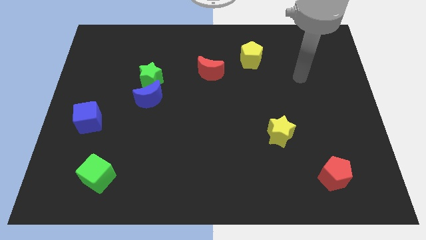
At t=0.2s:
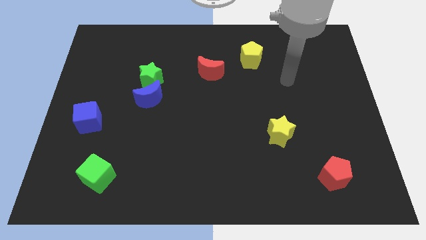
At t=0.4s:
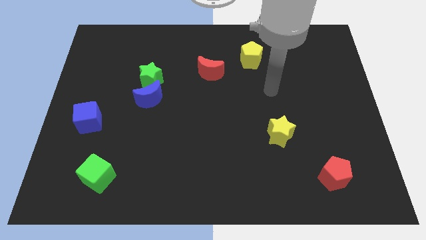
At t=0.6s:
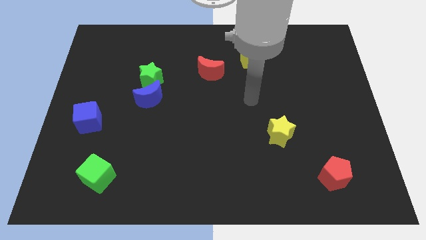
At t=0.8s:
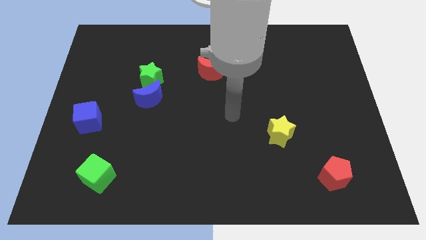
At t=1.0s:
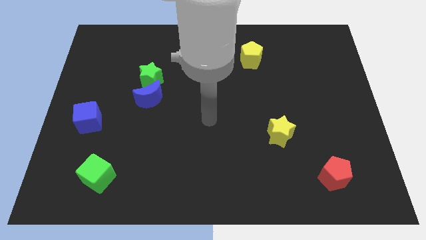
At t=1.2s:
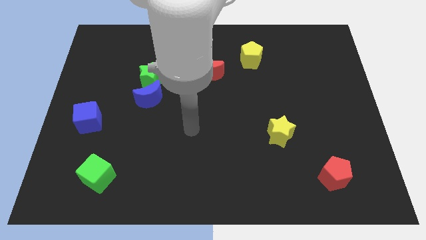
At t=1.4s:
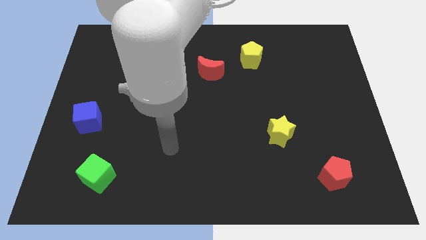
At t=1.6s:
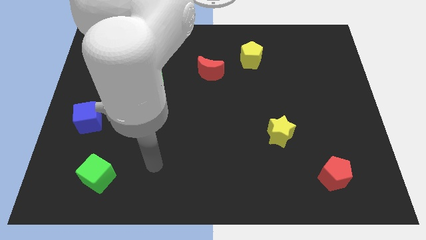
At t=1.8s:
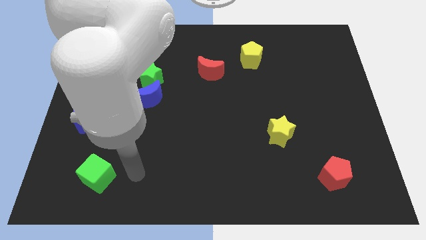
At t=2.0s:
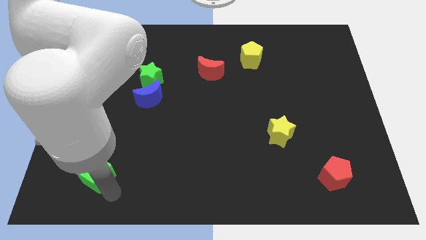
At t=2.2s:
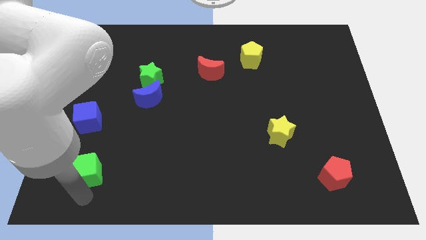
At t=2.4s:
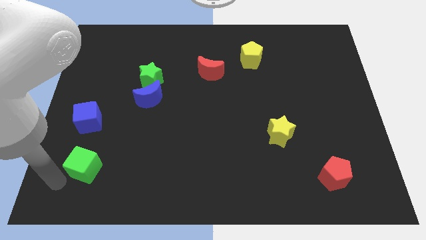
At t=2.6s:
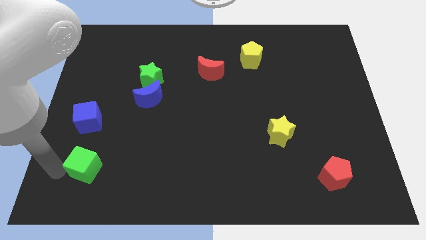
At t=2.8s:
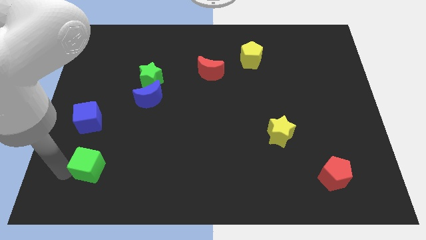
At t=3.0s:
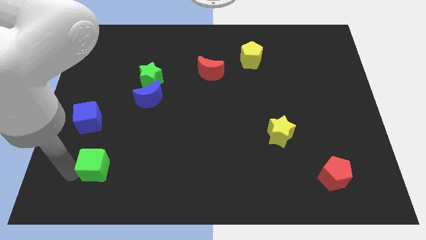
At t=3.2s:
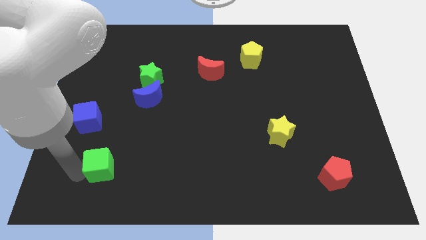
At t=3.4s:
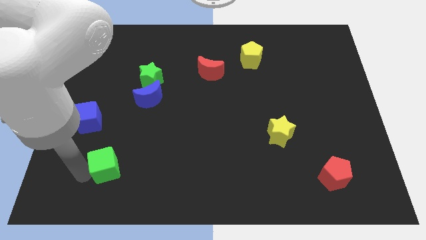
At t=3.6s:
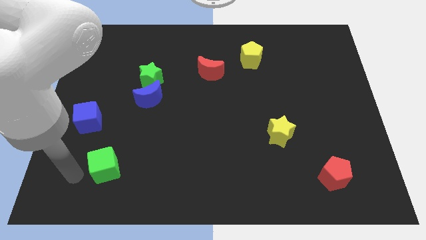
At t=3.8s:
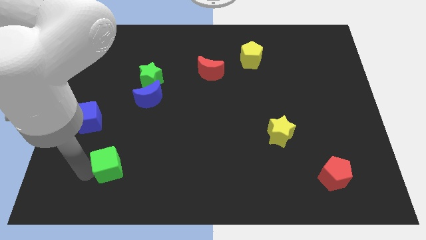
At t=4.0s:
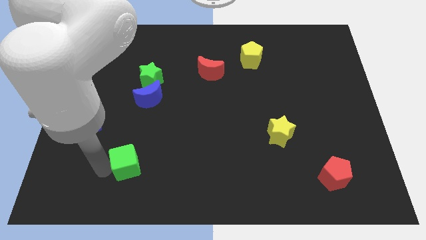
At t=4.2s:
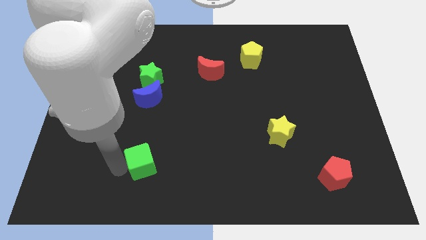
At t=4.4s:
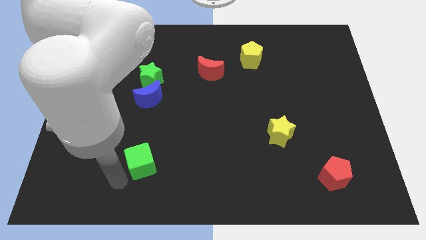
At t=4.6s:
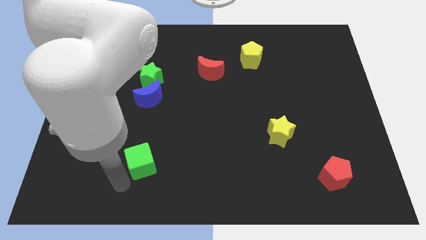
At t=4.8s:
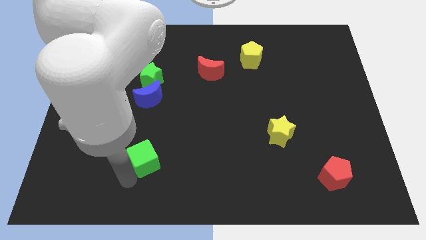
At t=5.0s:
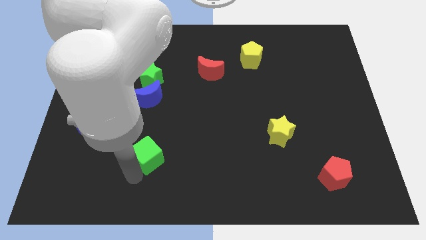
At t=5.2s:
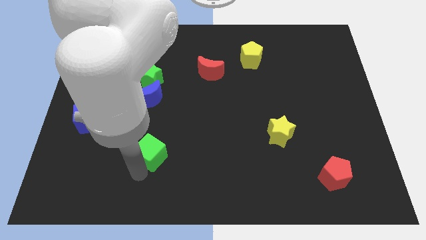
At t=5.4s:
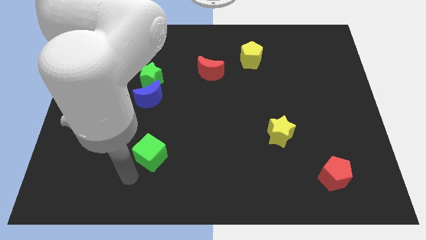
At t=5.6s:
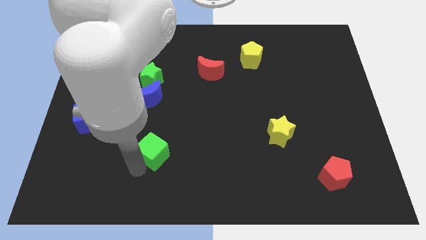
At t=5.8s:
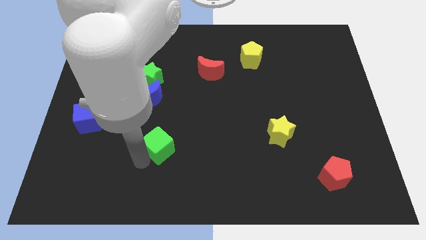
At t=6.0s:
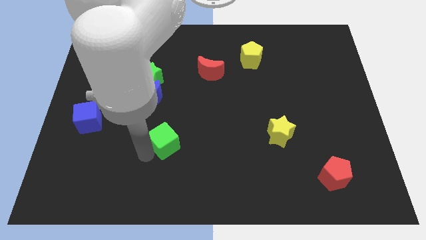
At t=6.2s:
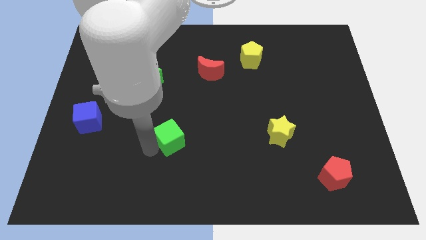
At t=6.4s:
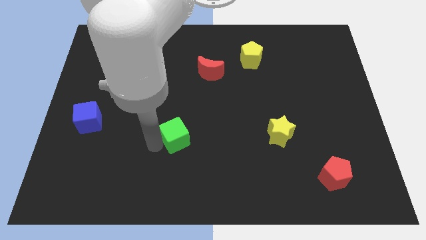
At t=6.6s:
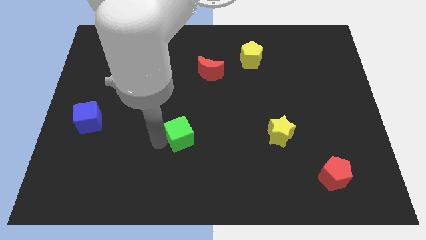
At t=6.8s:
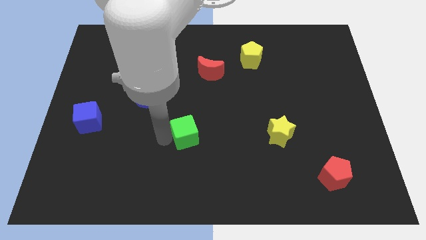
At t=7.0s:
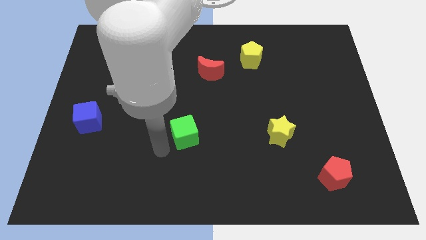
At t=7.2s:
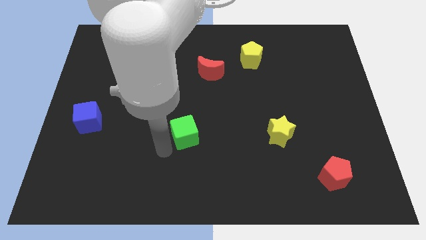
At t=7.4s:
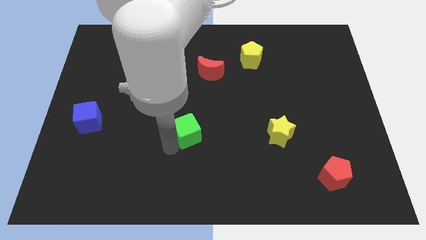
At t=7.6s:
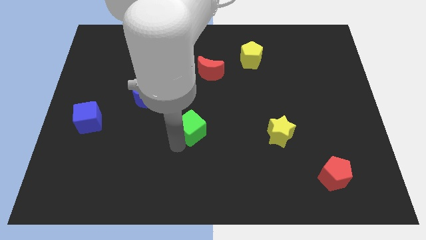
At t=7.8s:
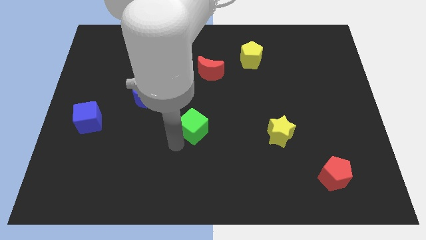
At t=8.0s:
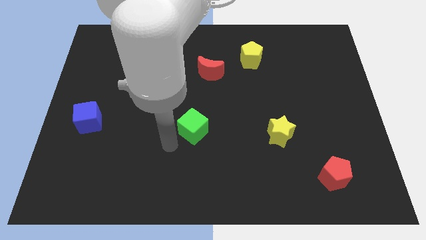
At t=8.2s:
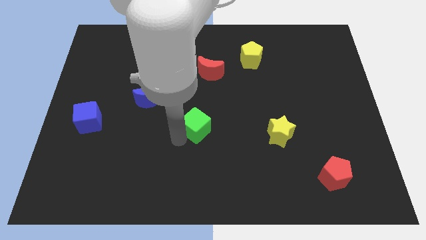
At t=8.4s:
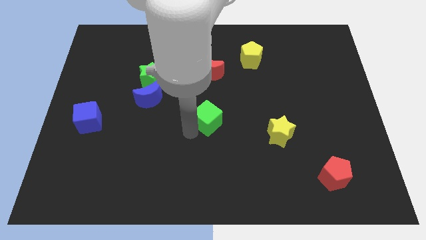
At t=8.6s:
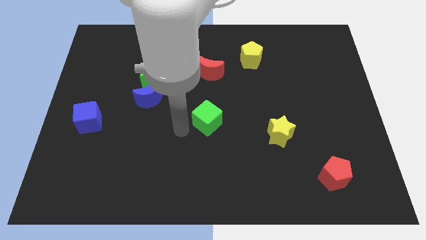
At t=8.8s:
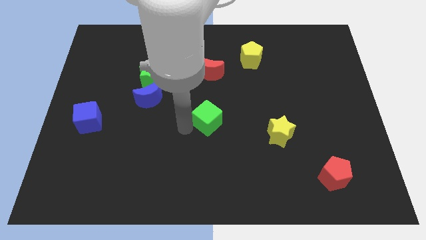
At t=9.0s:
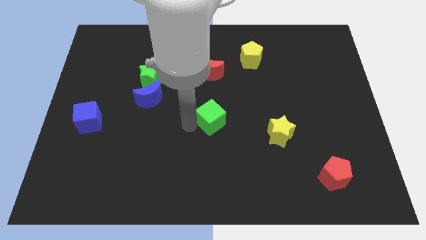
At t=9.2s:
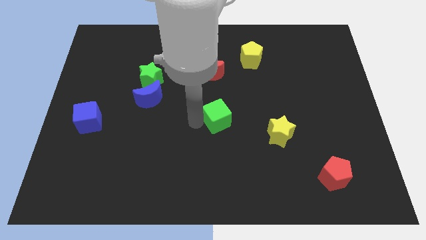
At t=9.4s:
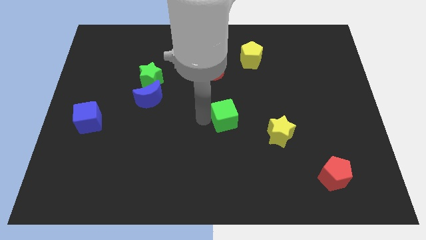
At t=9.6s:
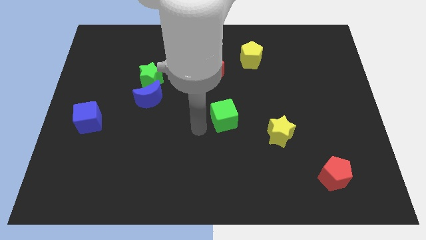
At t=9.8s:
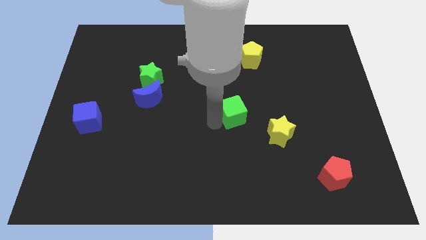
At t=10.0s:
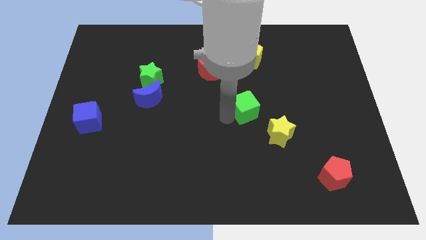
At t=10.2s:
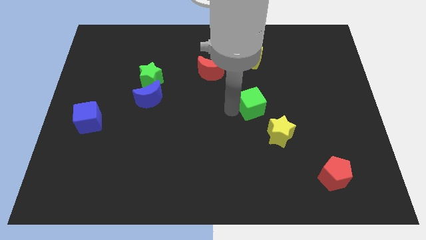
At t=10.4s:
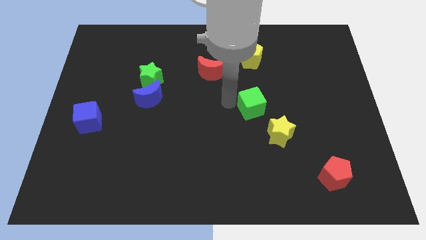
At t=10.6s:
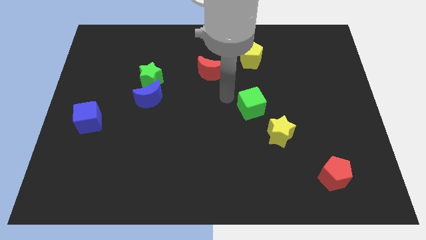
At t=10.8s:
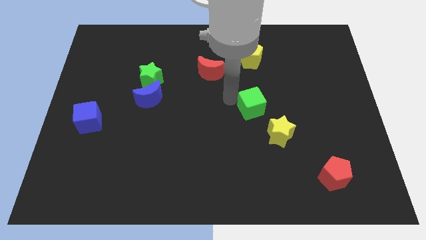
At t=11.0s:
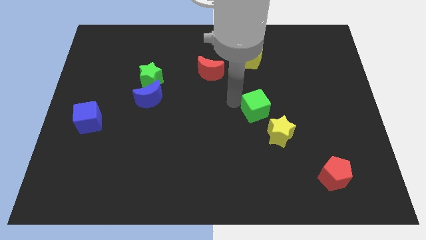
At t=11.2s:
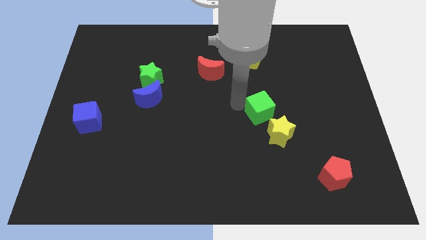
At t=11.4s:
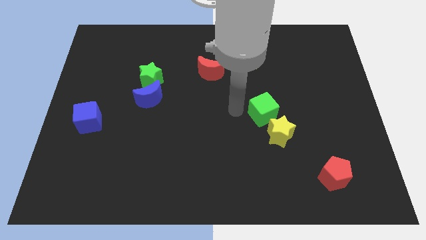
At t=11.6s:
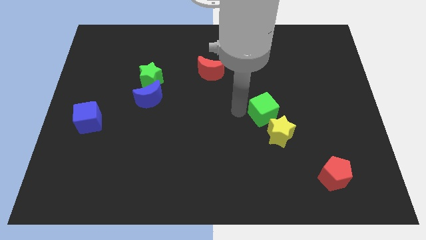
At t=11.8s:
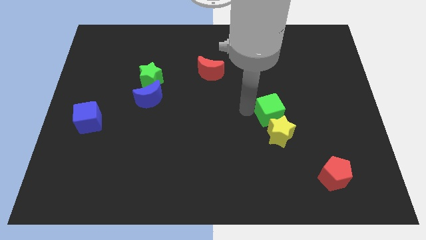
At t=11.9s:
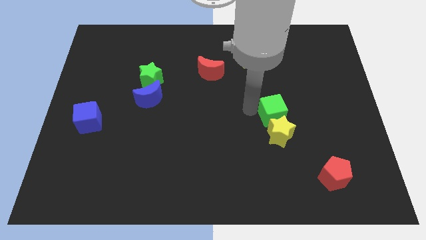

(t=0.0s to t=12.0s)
push the green cube to the top right of the yellow star
